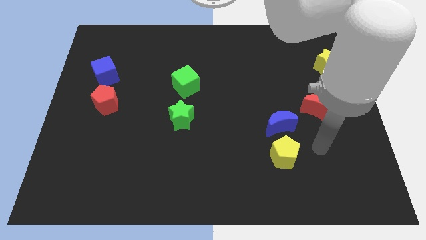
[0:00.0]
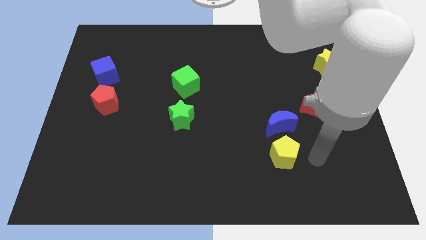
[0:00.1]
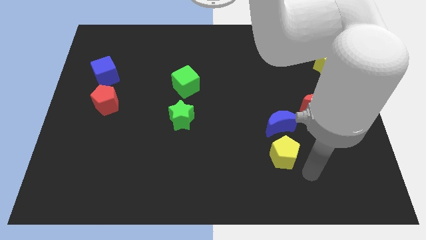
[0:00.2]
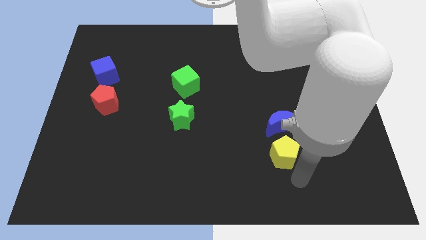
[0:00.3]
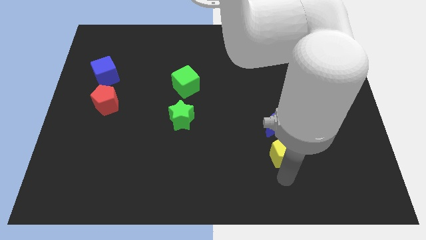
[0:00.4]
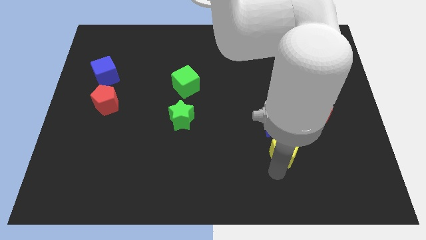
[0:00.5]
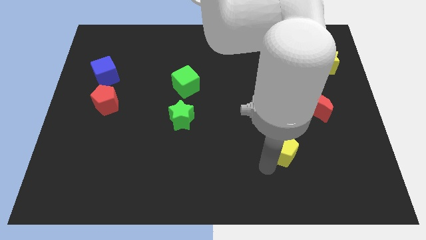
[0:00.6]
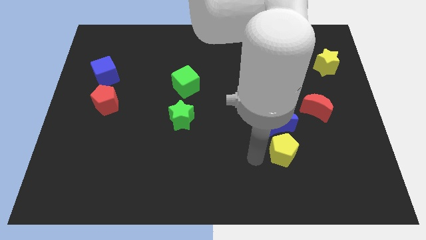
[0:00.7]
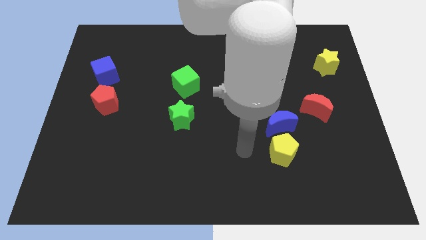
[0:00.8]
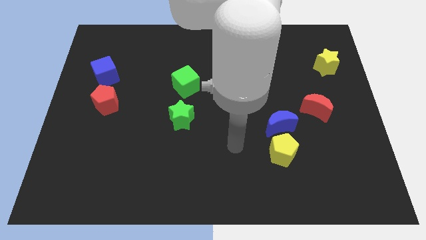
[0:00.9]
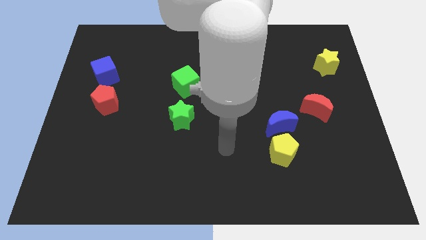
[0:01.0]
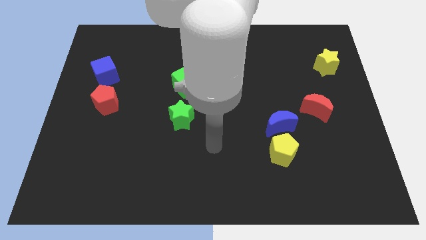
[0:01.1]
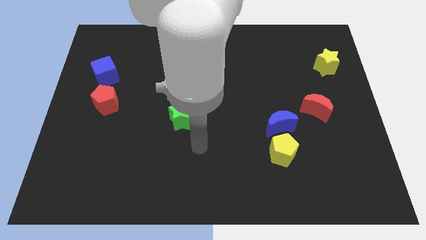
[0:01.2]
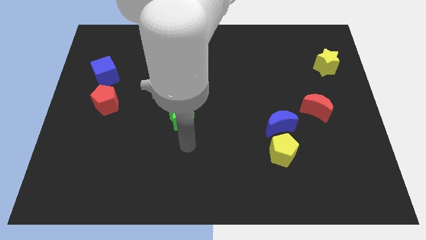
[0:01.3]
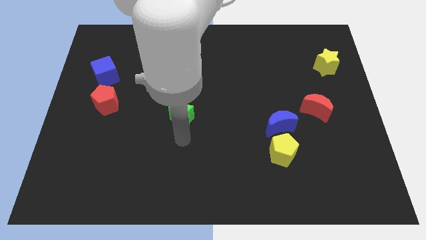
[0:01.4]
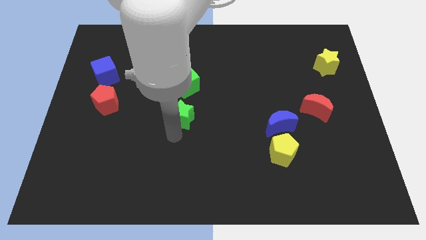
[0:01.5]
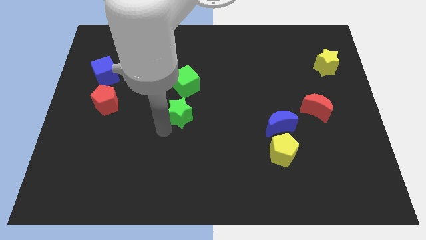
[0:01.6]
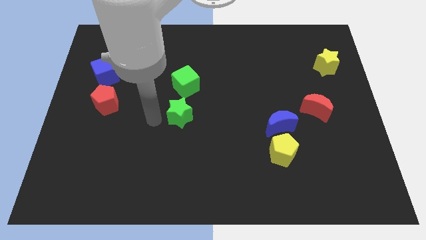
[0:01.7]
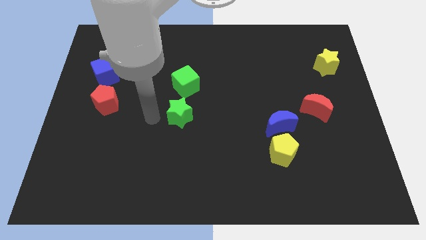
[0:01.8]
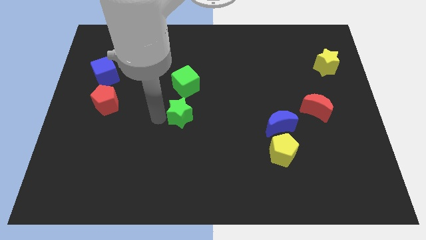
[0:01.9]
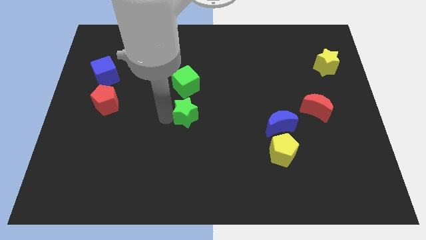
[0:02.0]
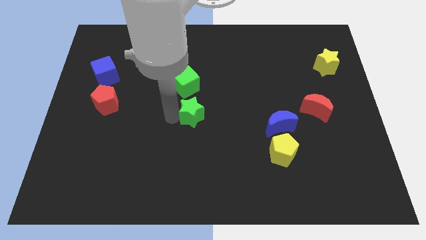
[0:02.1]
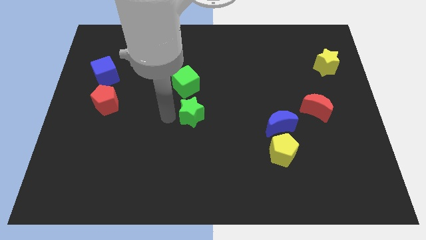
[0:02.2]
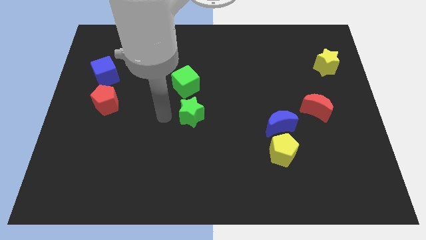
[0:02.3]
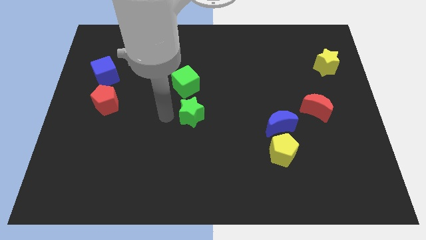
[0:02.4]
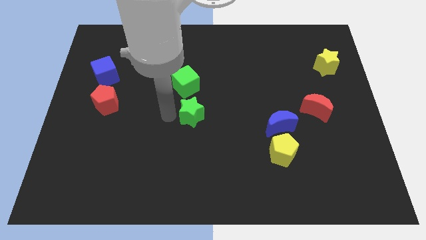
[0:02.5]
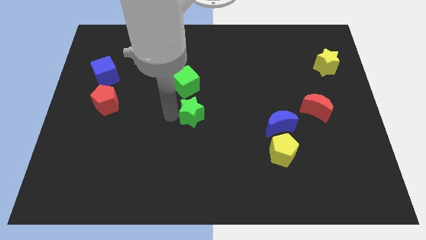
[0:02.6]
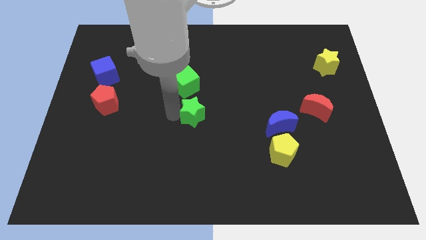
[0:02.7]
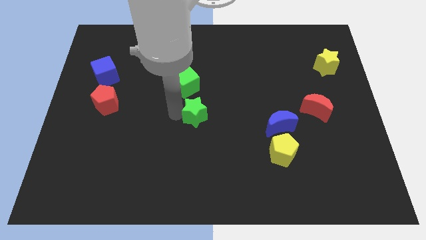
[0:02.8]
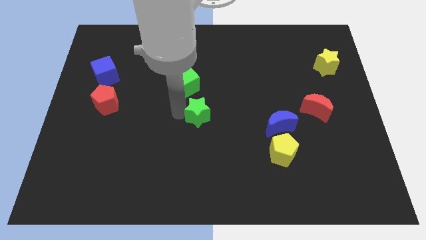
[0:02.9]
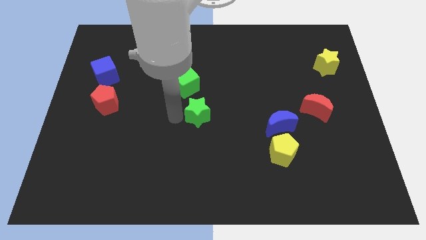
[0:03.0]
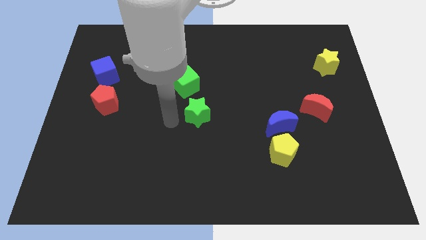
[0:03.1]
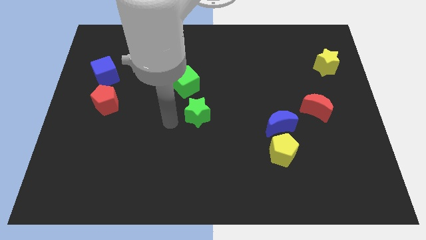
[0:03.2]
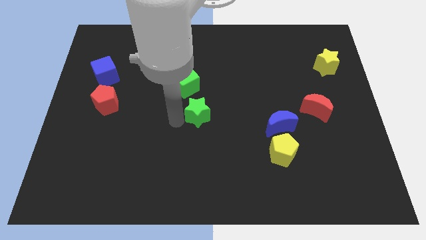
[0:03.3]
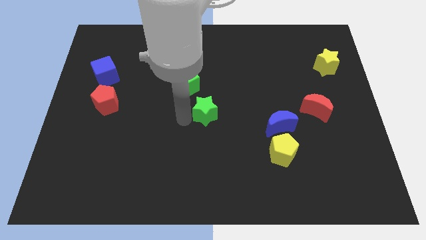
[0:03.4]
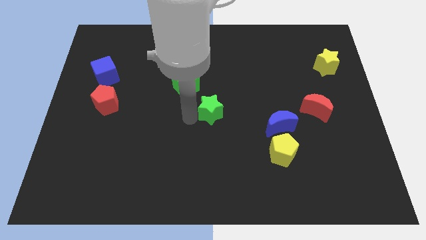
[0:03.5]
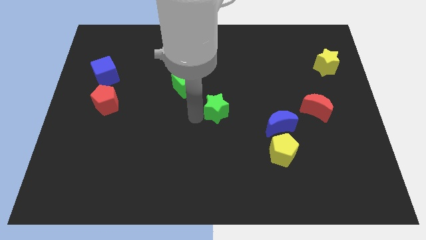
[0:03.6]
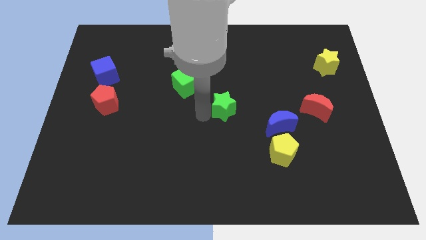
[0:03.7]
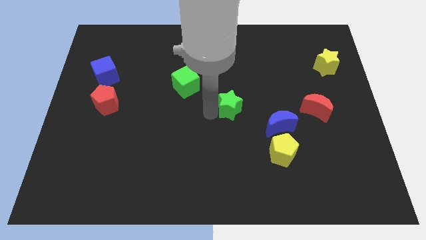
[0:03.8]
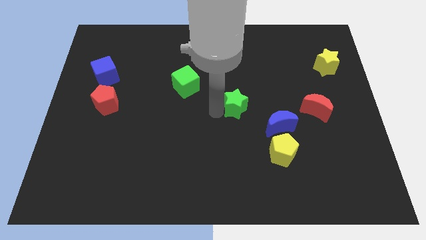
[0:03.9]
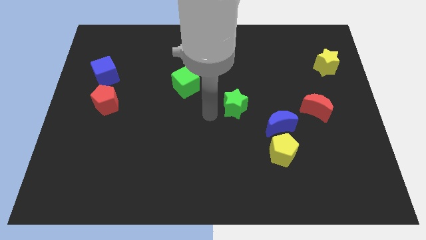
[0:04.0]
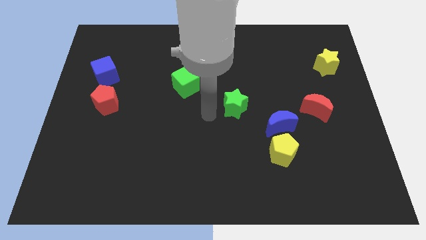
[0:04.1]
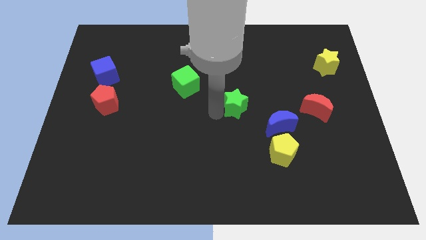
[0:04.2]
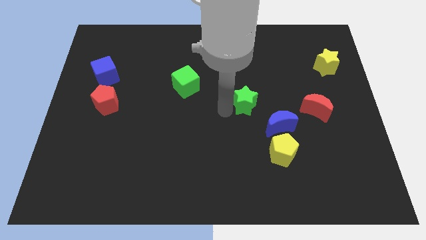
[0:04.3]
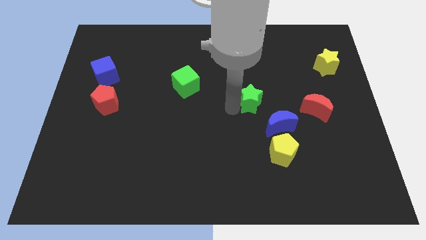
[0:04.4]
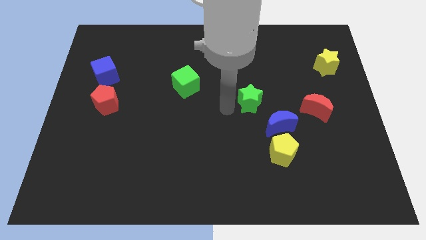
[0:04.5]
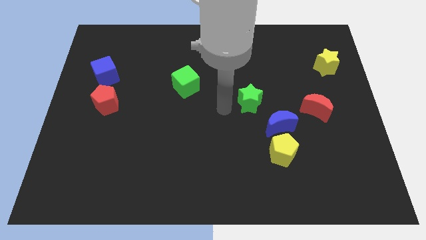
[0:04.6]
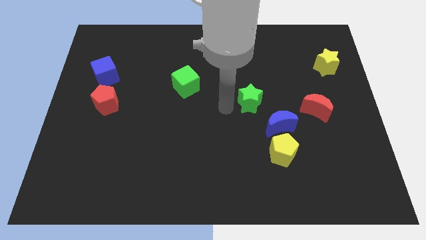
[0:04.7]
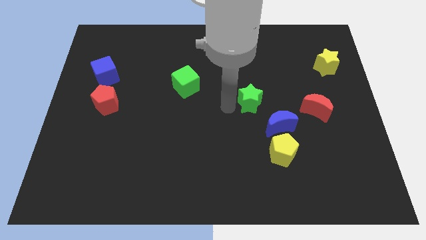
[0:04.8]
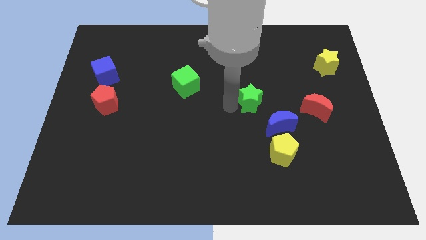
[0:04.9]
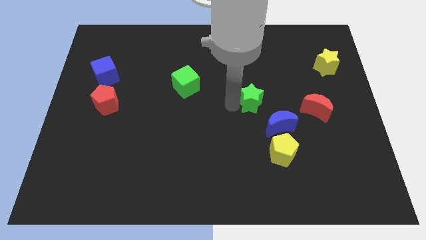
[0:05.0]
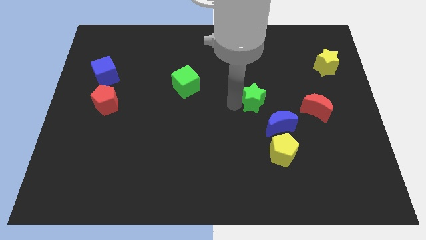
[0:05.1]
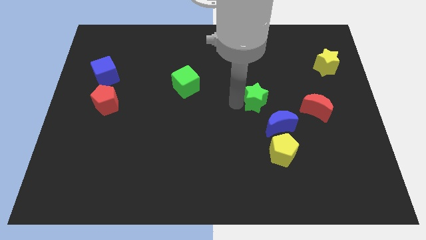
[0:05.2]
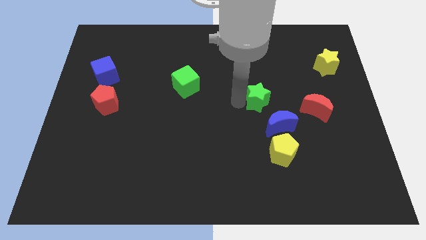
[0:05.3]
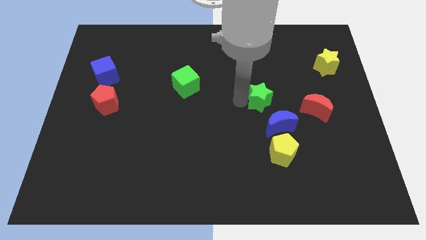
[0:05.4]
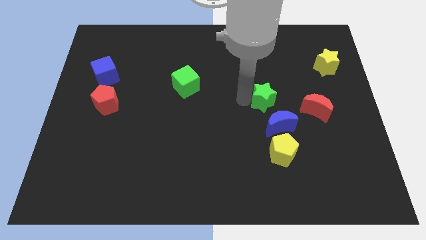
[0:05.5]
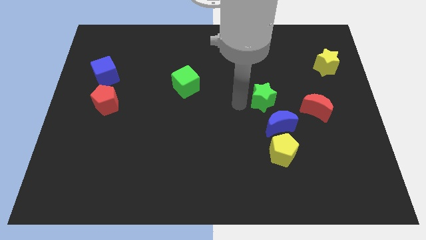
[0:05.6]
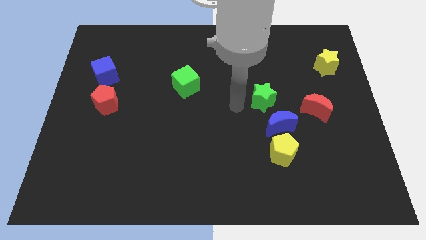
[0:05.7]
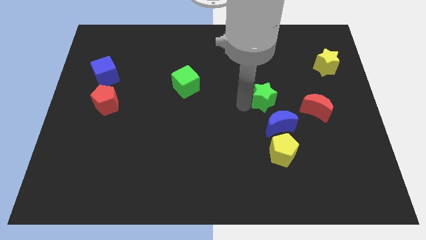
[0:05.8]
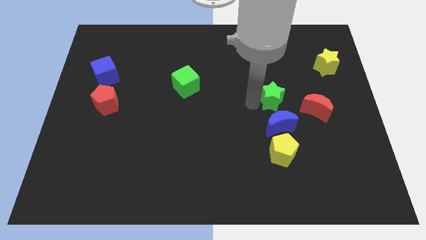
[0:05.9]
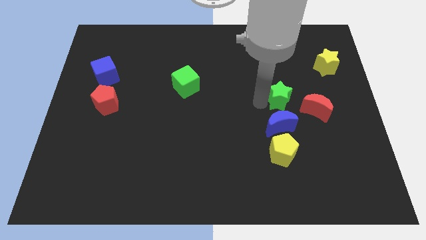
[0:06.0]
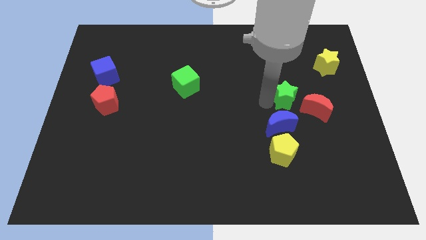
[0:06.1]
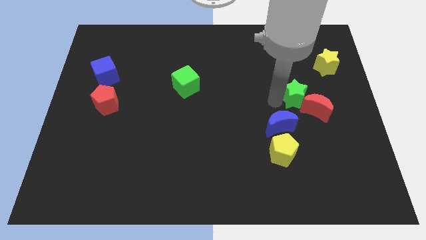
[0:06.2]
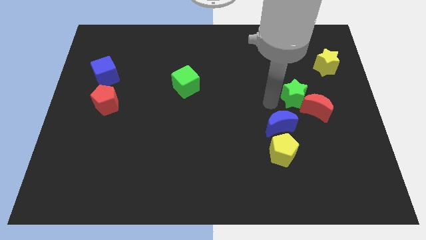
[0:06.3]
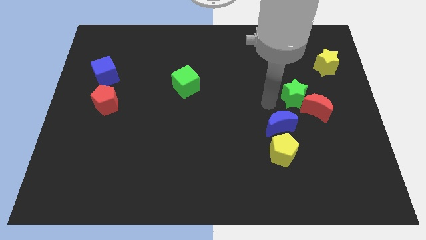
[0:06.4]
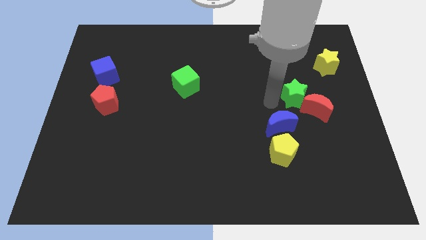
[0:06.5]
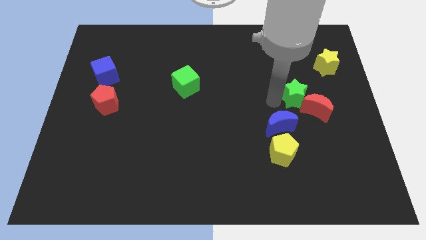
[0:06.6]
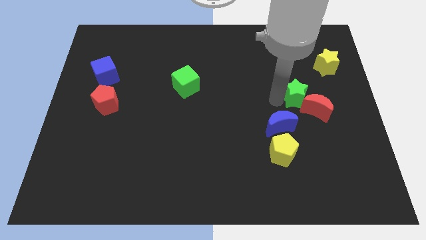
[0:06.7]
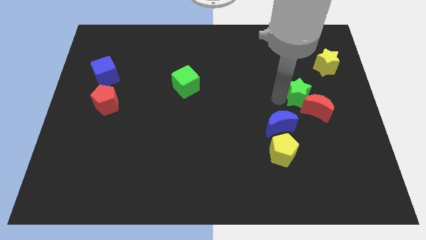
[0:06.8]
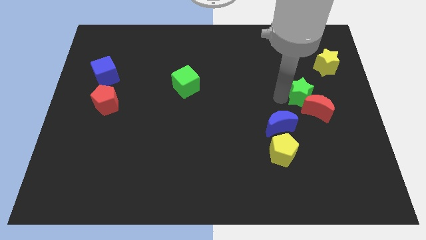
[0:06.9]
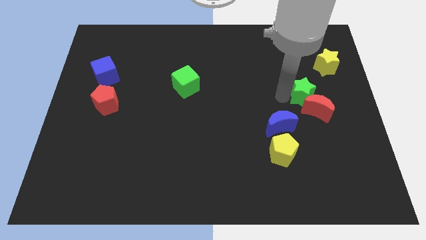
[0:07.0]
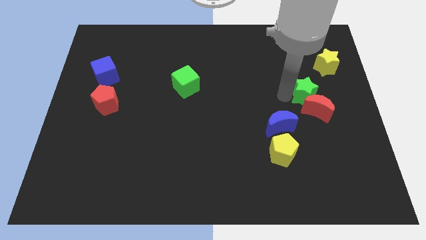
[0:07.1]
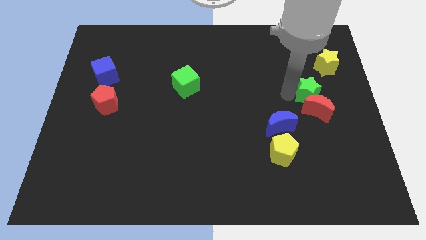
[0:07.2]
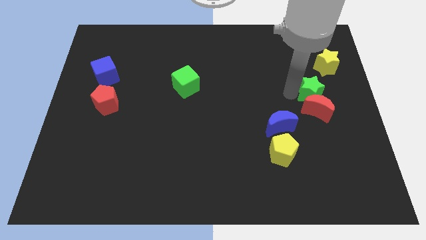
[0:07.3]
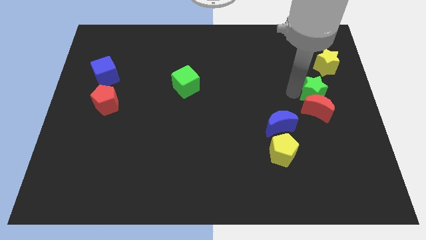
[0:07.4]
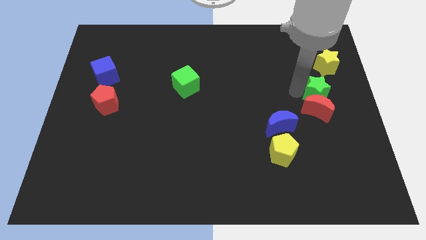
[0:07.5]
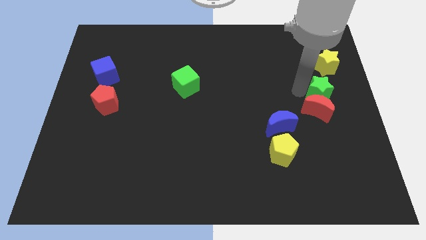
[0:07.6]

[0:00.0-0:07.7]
put the green star to the right side of the board
